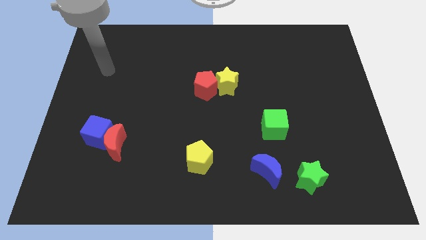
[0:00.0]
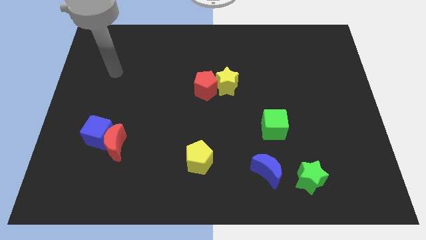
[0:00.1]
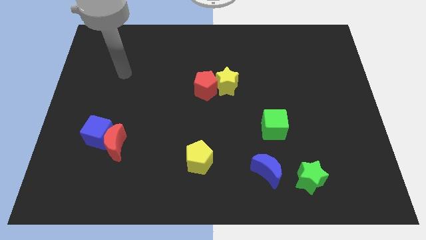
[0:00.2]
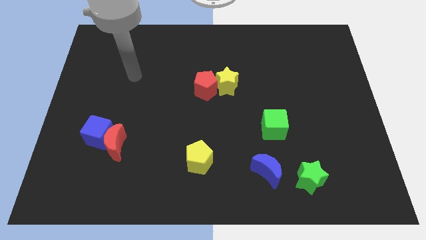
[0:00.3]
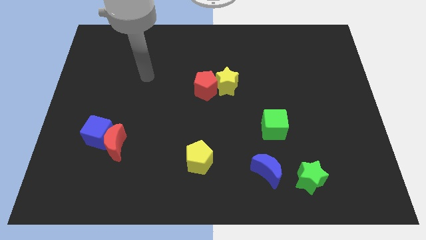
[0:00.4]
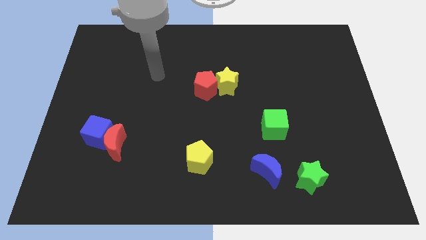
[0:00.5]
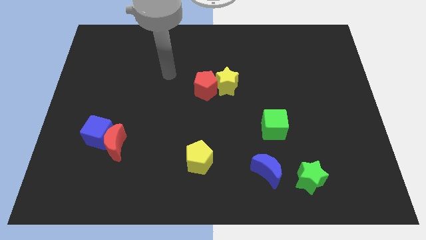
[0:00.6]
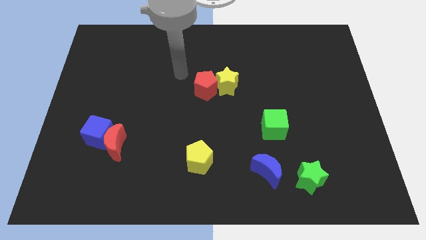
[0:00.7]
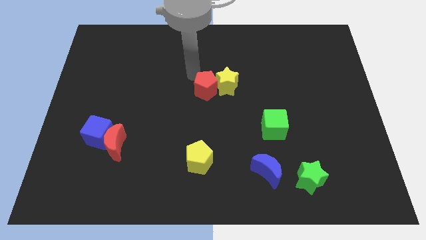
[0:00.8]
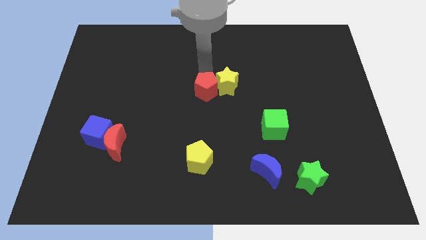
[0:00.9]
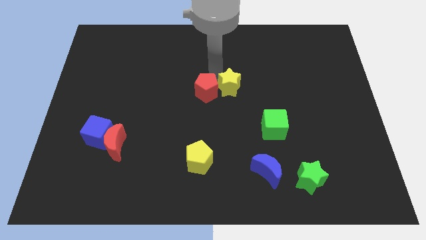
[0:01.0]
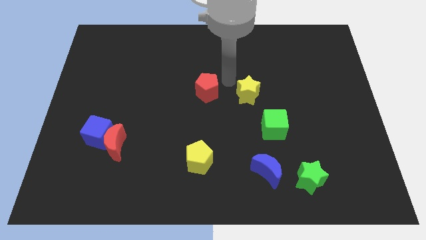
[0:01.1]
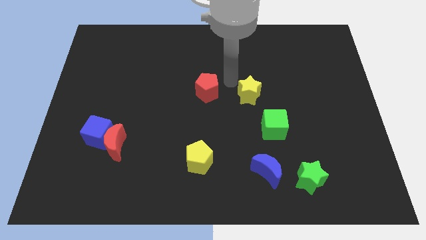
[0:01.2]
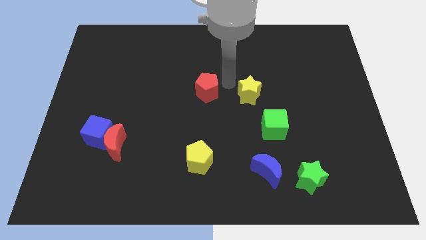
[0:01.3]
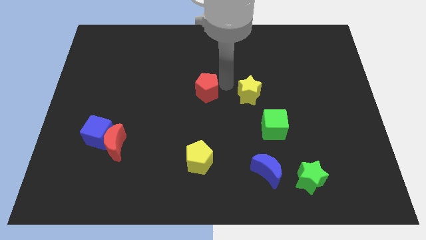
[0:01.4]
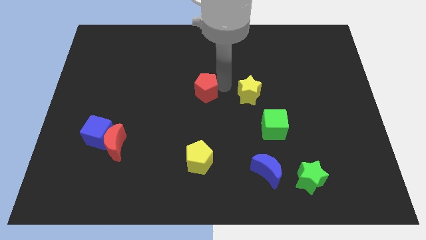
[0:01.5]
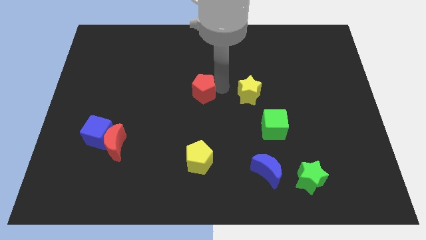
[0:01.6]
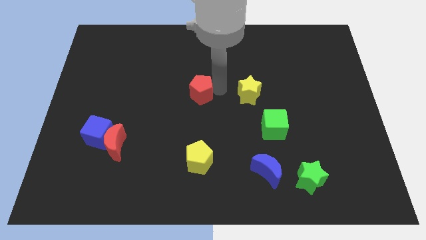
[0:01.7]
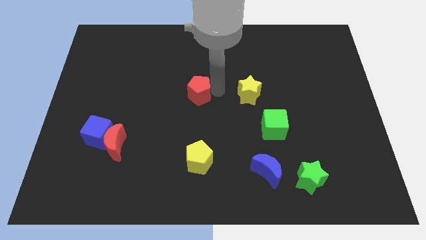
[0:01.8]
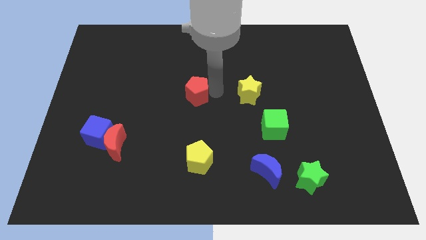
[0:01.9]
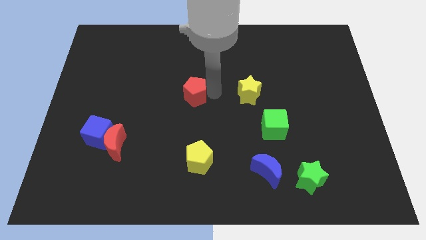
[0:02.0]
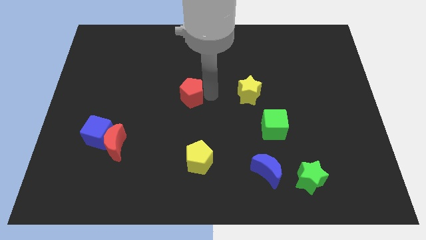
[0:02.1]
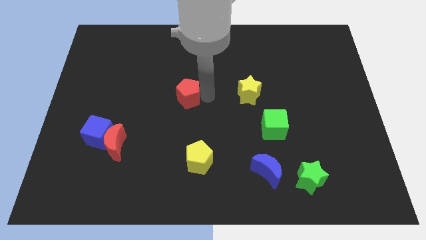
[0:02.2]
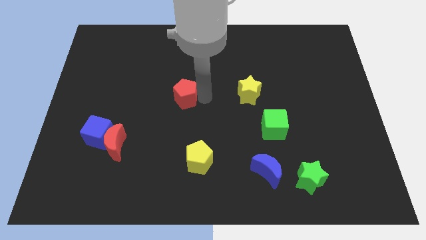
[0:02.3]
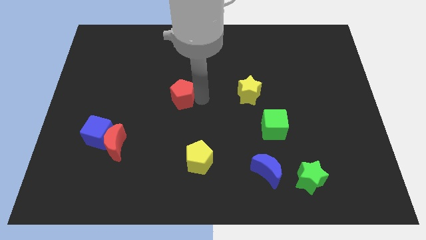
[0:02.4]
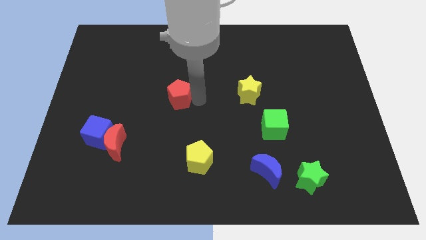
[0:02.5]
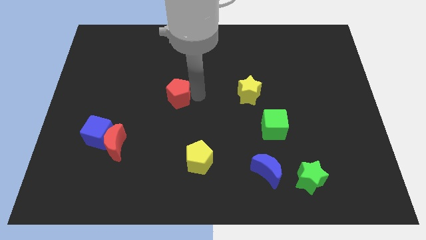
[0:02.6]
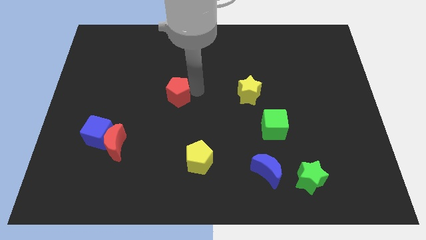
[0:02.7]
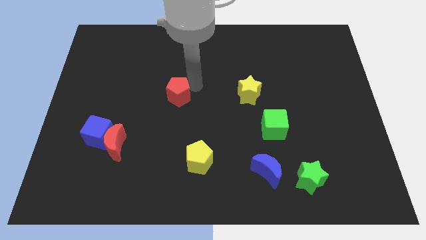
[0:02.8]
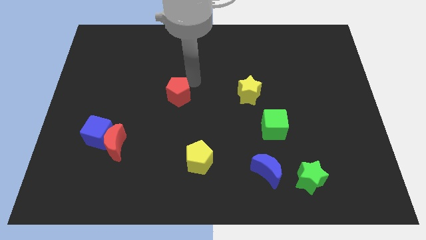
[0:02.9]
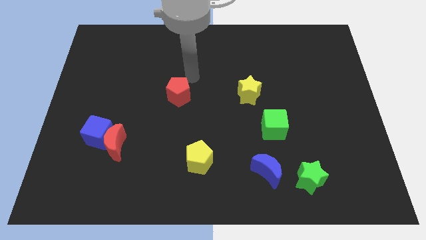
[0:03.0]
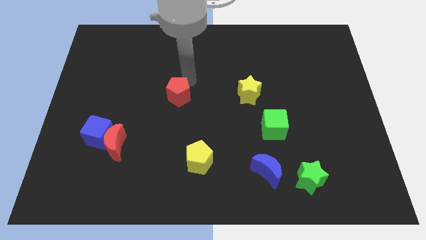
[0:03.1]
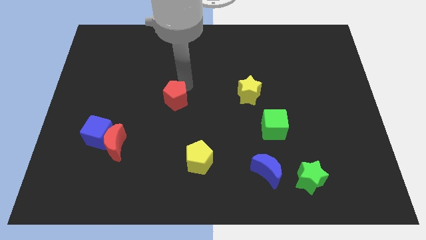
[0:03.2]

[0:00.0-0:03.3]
slightly push the red pentagon down and to the left diagonally

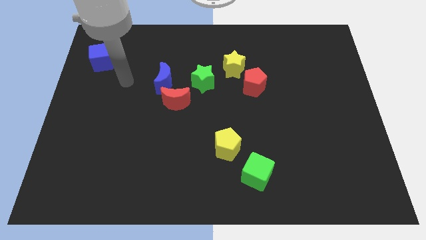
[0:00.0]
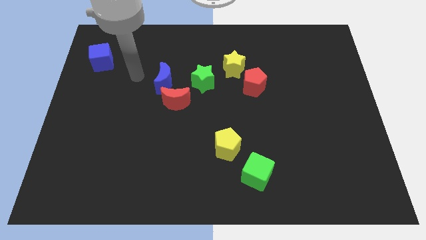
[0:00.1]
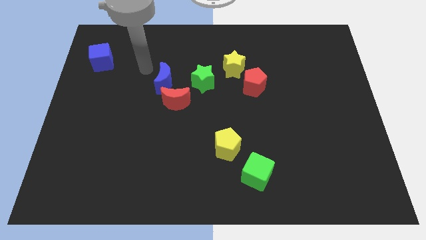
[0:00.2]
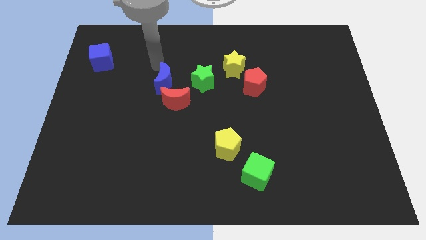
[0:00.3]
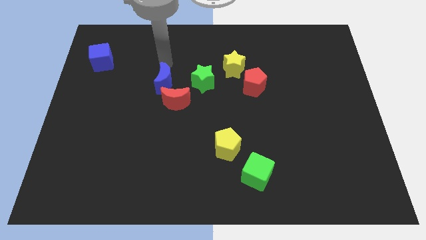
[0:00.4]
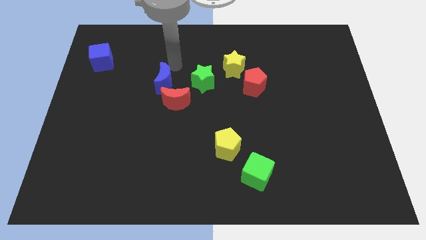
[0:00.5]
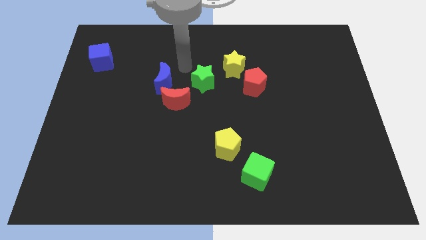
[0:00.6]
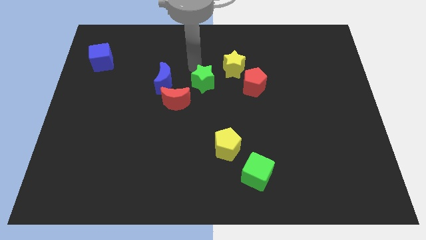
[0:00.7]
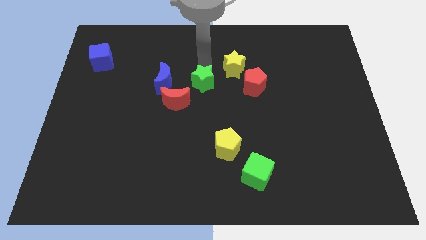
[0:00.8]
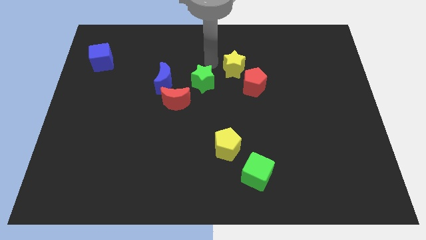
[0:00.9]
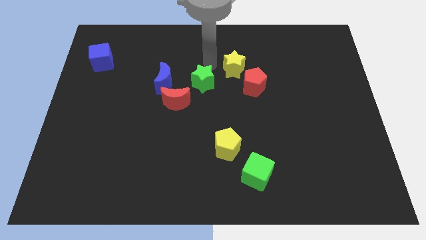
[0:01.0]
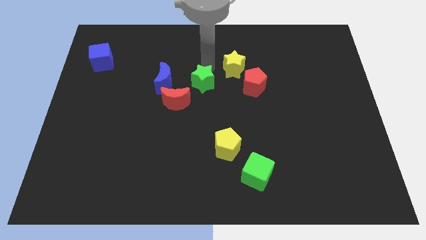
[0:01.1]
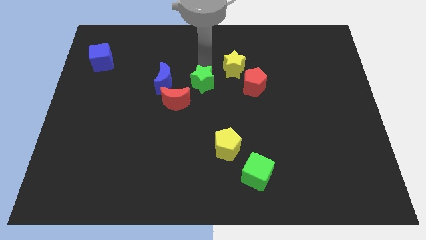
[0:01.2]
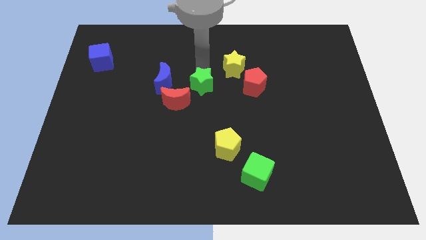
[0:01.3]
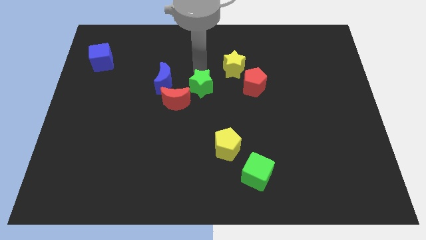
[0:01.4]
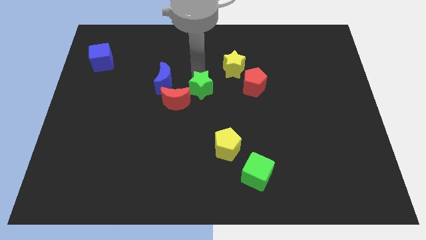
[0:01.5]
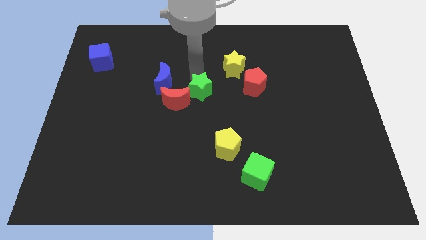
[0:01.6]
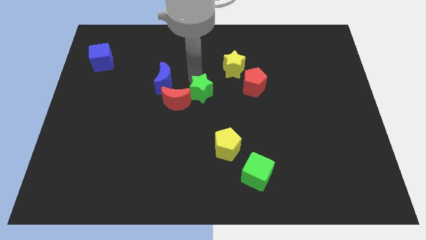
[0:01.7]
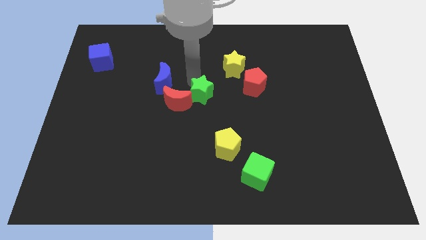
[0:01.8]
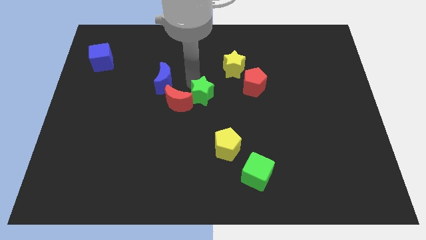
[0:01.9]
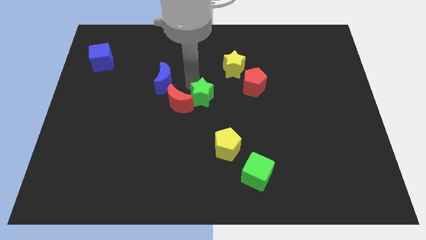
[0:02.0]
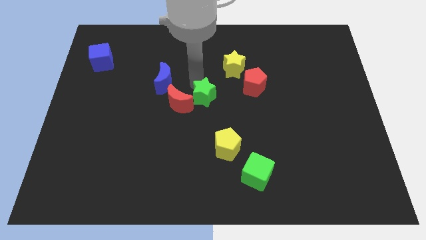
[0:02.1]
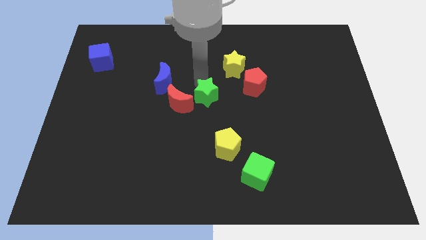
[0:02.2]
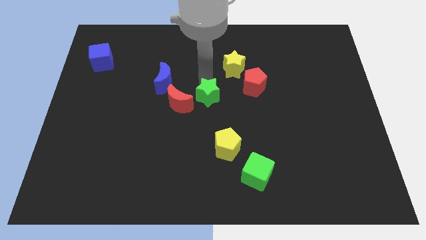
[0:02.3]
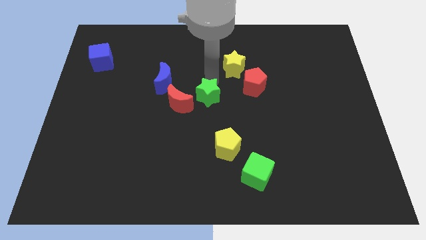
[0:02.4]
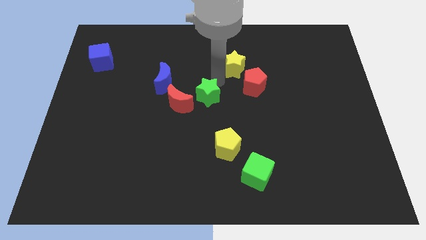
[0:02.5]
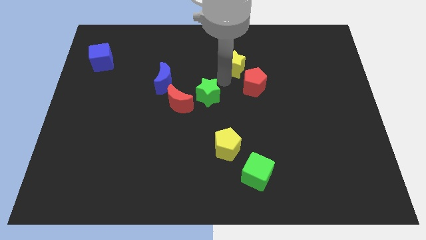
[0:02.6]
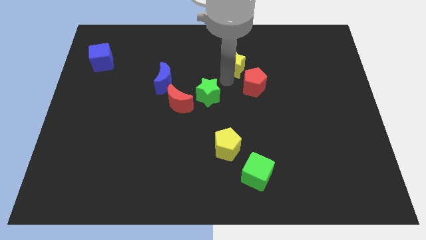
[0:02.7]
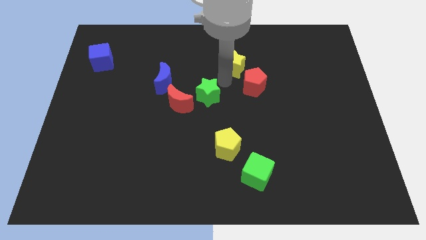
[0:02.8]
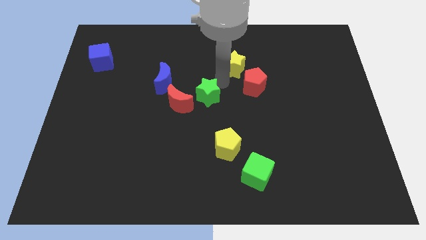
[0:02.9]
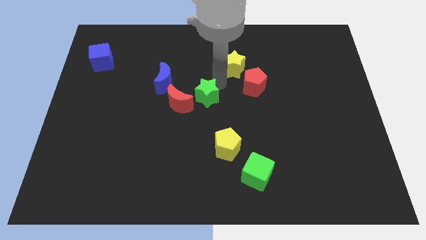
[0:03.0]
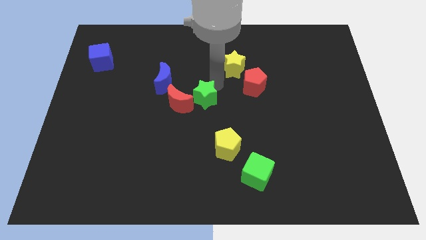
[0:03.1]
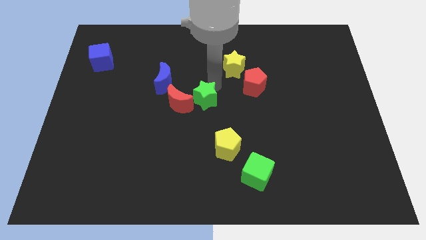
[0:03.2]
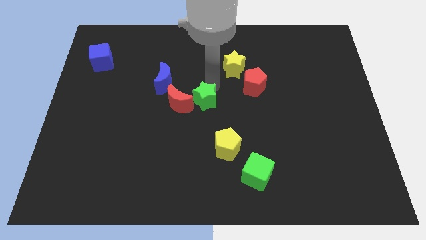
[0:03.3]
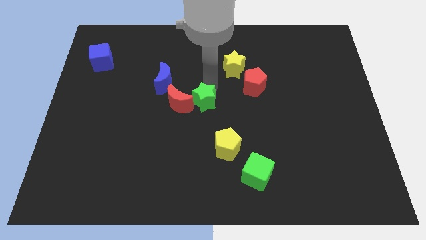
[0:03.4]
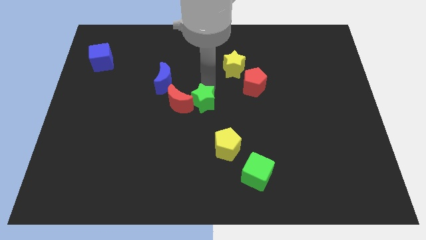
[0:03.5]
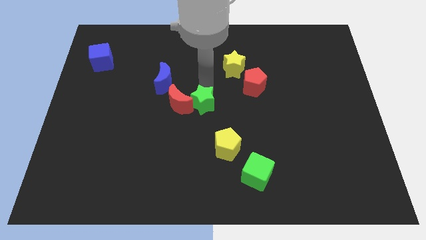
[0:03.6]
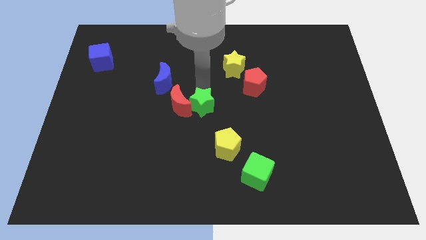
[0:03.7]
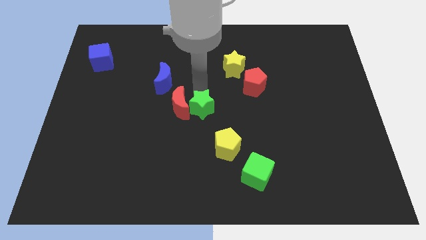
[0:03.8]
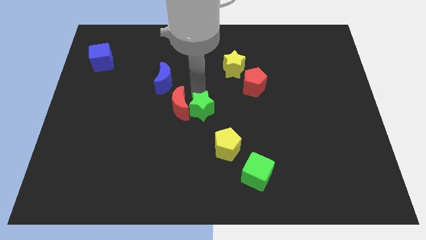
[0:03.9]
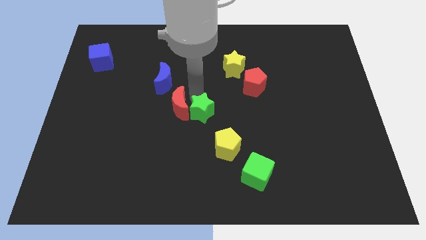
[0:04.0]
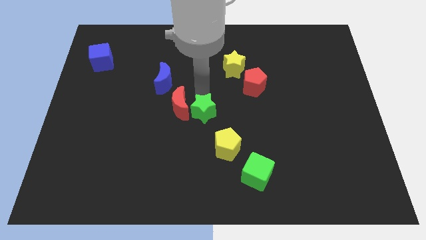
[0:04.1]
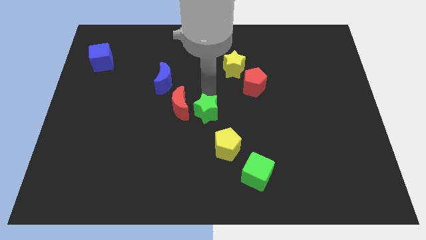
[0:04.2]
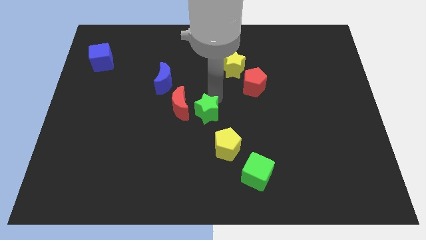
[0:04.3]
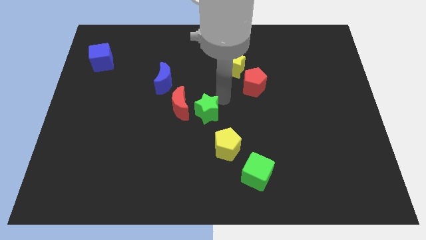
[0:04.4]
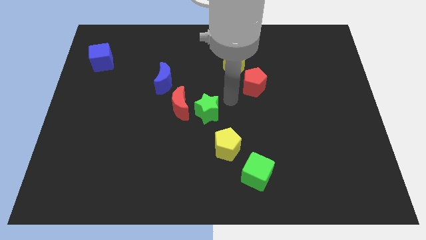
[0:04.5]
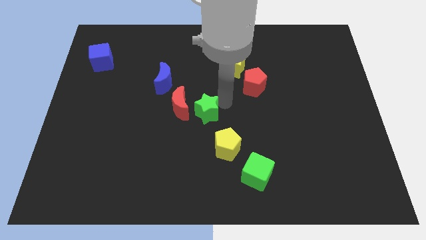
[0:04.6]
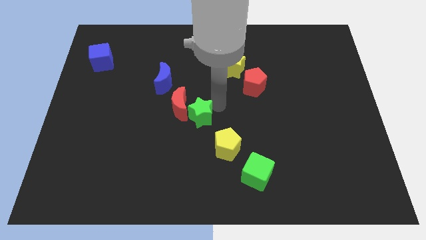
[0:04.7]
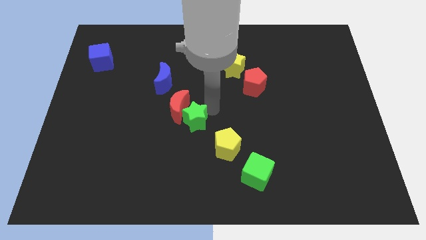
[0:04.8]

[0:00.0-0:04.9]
push the green star a bit diagonally downwards and to the left
